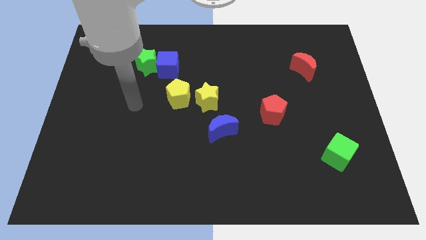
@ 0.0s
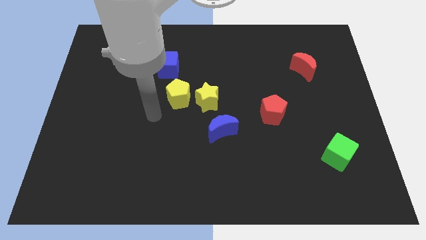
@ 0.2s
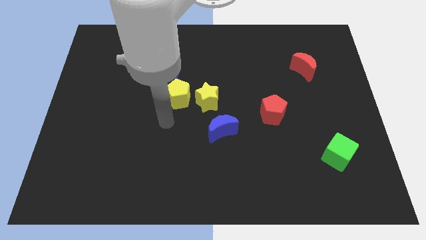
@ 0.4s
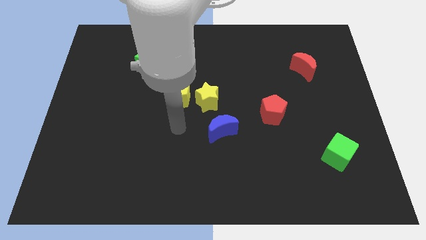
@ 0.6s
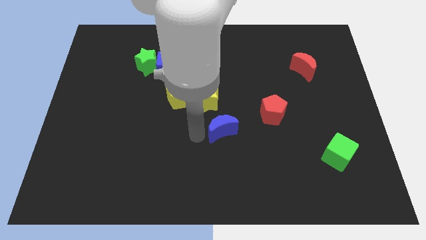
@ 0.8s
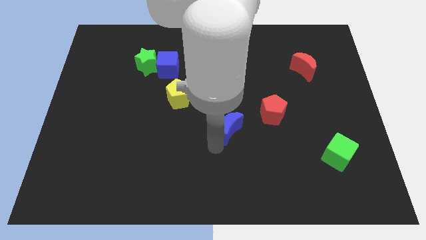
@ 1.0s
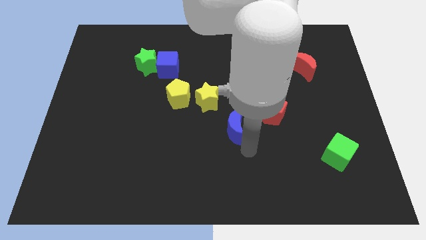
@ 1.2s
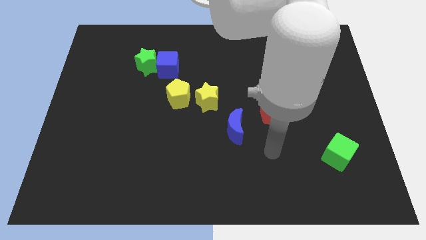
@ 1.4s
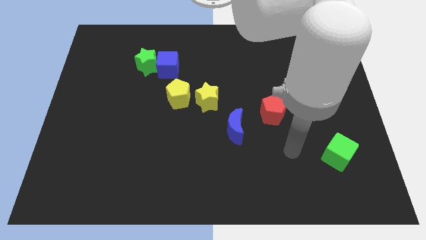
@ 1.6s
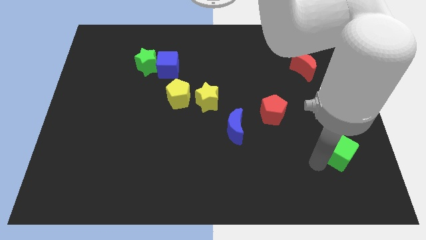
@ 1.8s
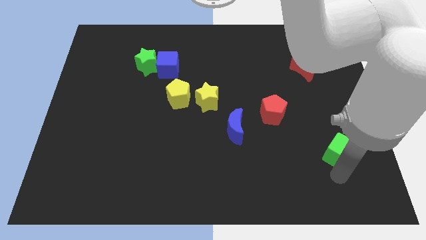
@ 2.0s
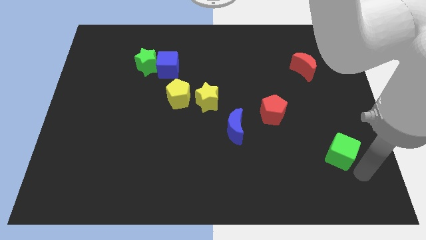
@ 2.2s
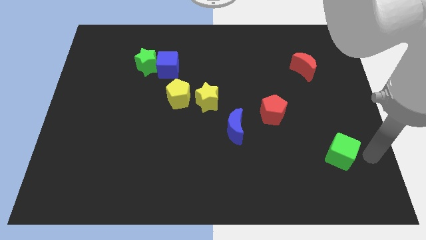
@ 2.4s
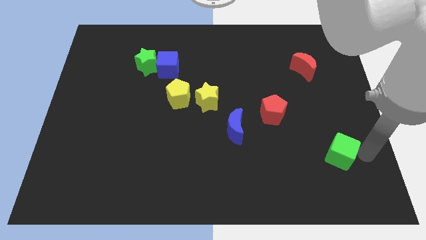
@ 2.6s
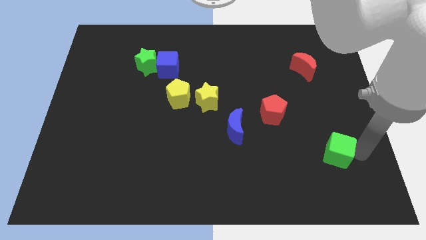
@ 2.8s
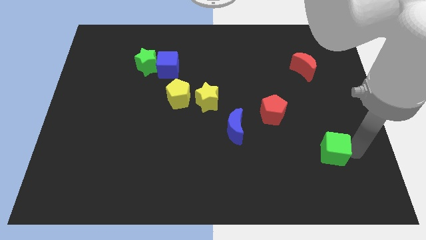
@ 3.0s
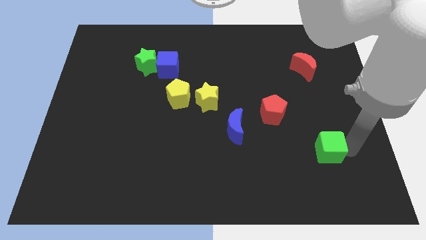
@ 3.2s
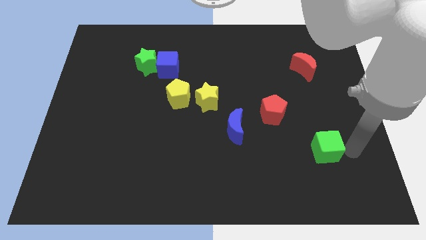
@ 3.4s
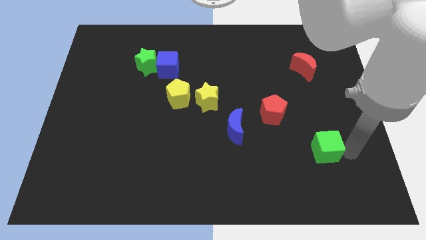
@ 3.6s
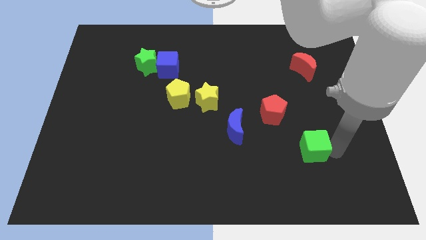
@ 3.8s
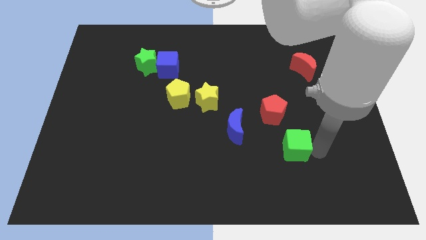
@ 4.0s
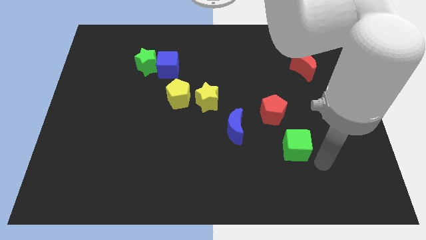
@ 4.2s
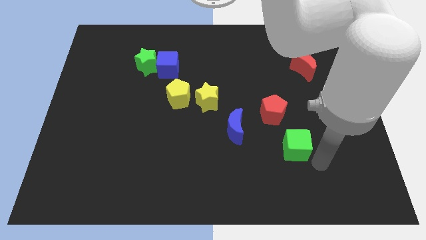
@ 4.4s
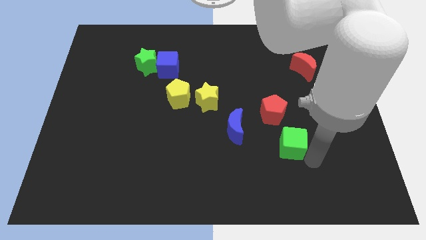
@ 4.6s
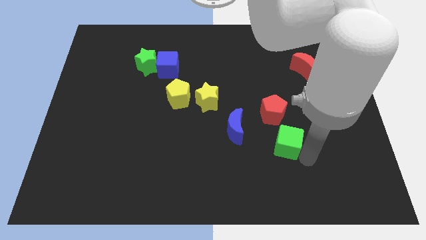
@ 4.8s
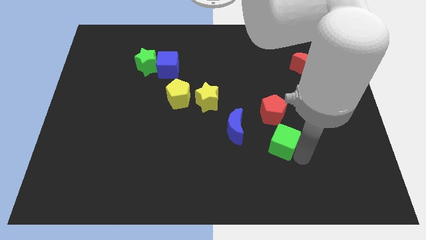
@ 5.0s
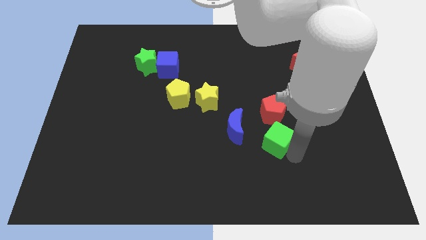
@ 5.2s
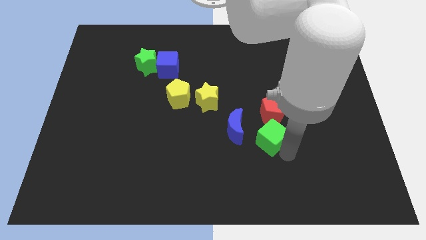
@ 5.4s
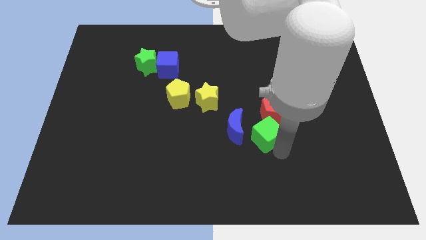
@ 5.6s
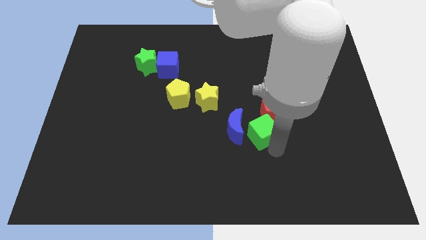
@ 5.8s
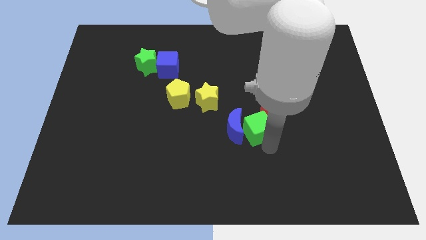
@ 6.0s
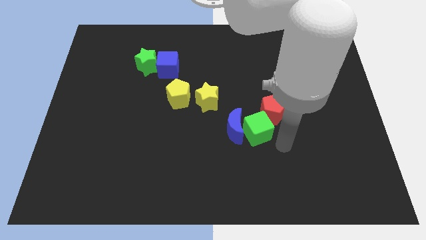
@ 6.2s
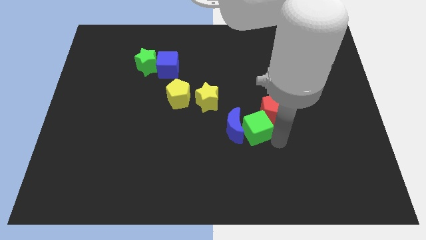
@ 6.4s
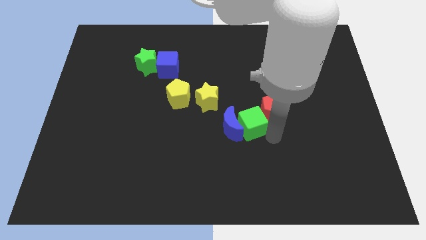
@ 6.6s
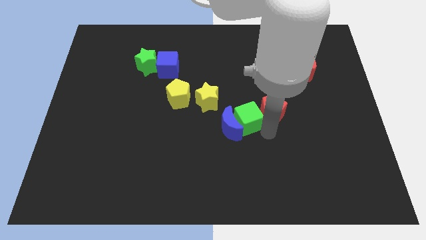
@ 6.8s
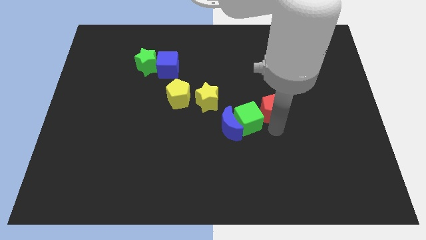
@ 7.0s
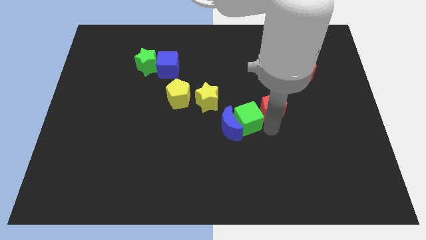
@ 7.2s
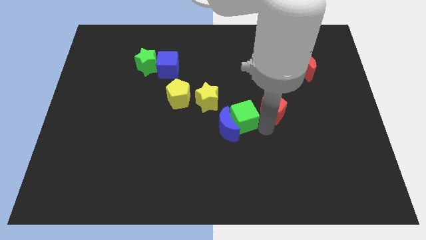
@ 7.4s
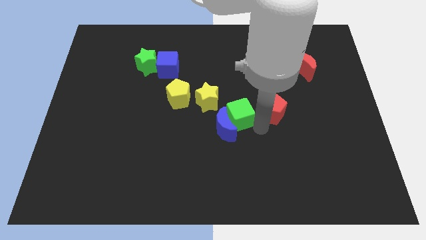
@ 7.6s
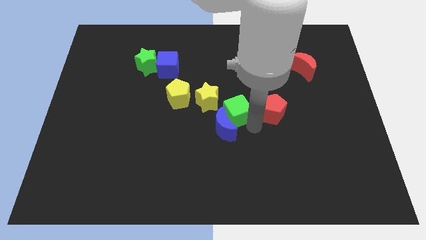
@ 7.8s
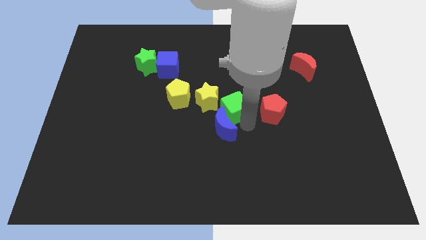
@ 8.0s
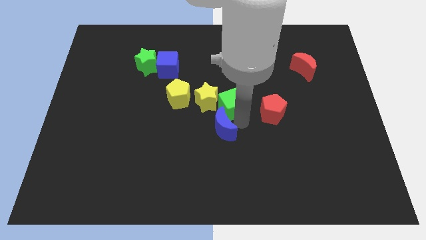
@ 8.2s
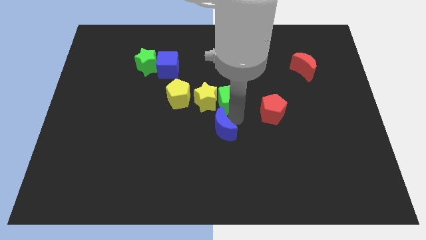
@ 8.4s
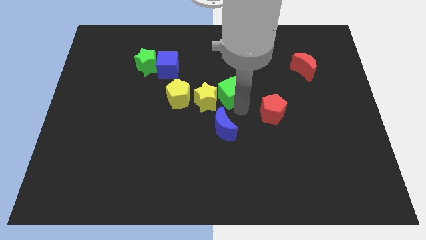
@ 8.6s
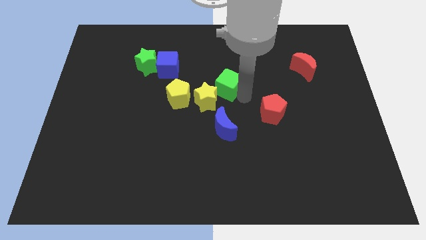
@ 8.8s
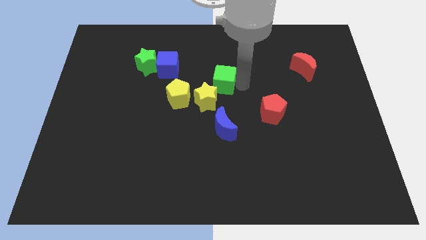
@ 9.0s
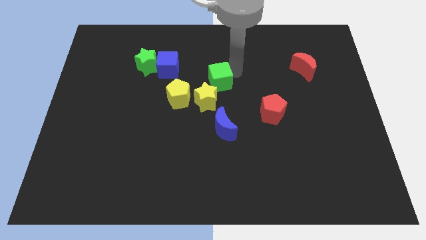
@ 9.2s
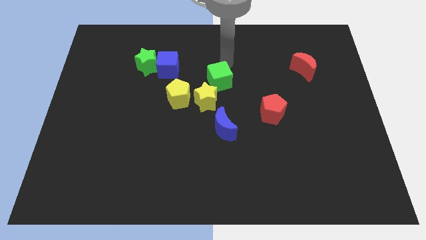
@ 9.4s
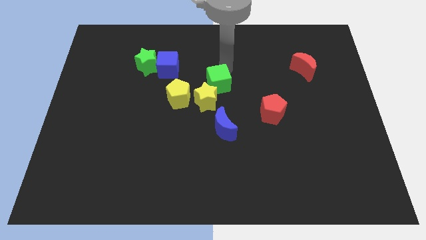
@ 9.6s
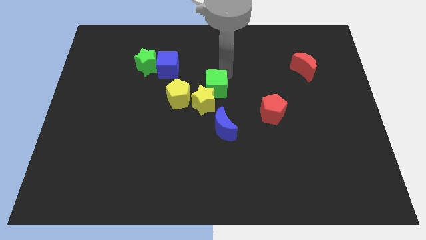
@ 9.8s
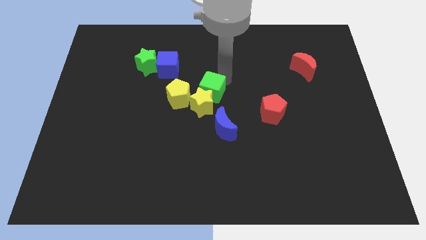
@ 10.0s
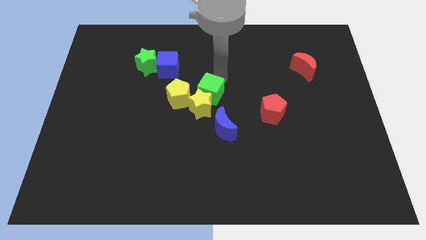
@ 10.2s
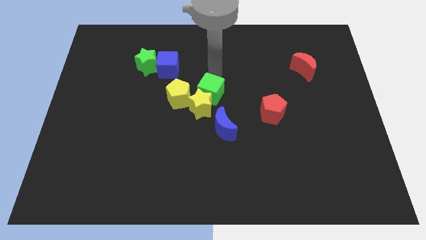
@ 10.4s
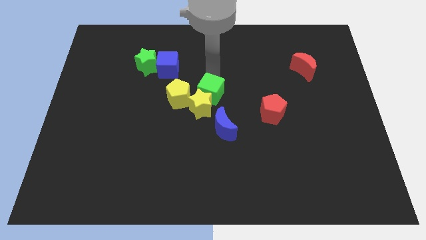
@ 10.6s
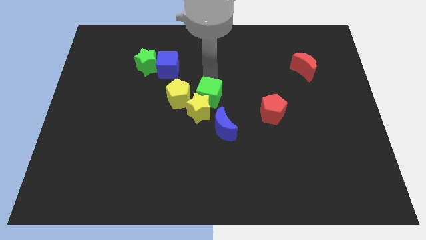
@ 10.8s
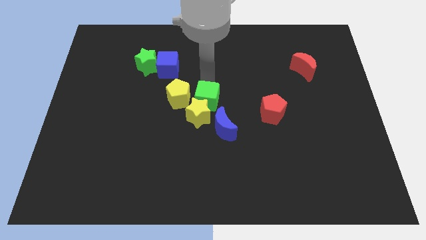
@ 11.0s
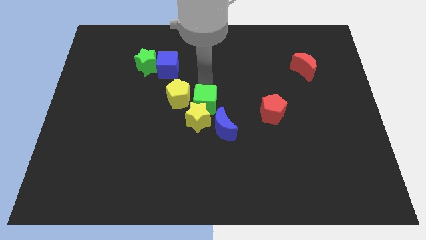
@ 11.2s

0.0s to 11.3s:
slide the green cube close to the yellow pentagon

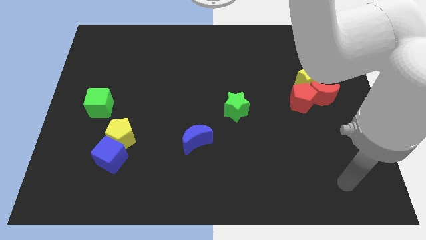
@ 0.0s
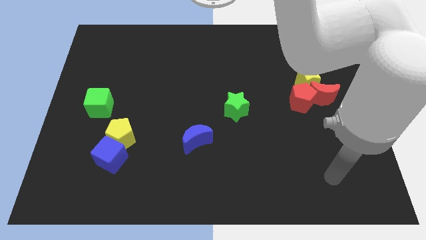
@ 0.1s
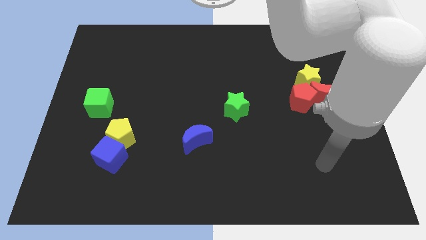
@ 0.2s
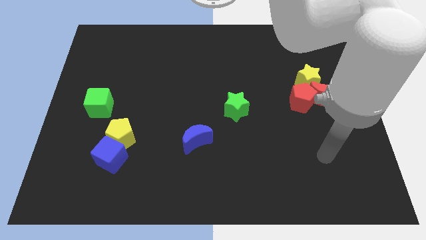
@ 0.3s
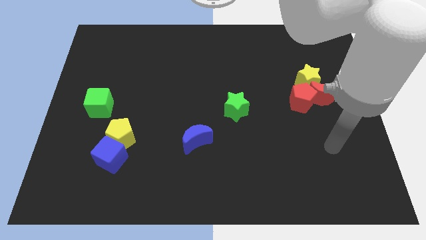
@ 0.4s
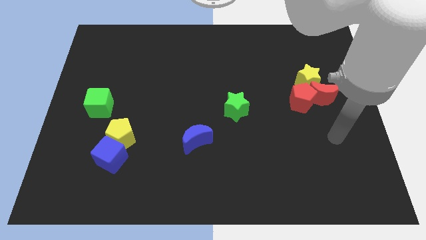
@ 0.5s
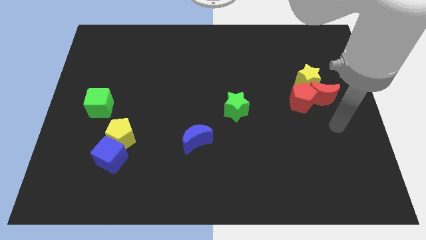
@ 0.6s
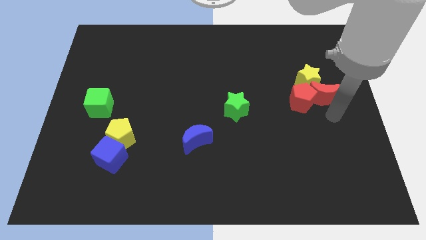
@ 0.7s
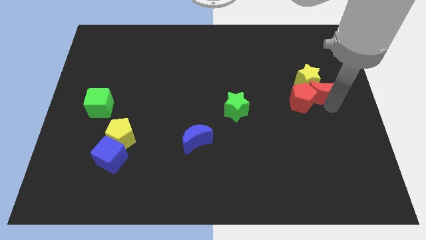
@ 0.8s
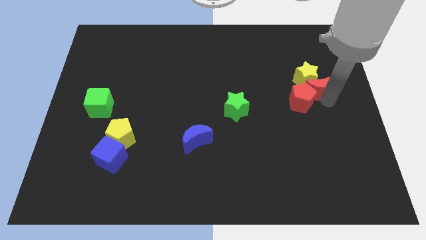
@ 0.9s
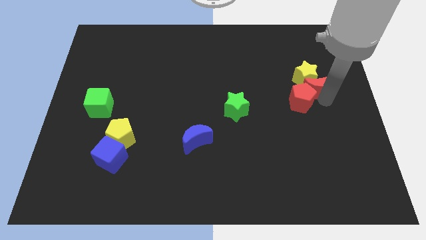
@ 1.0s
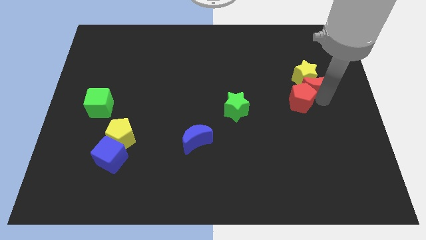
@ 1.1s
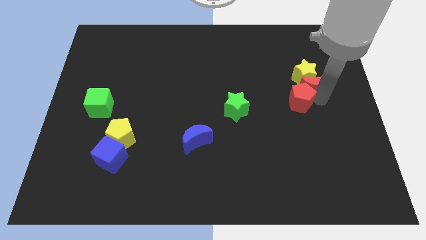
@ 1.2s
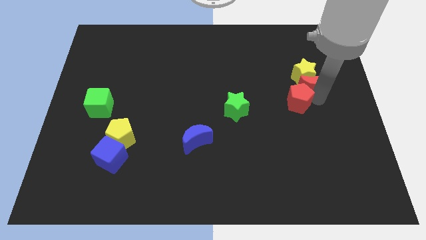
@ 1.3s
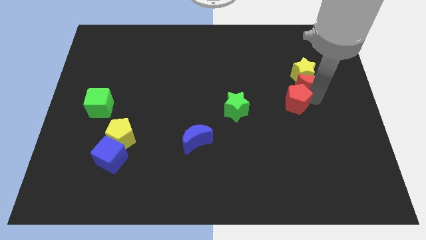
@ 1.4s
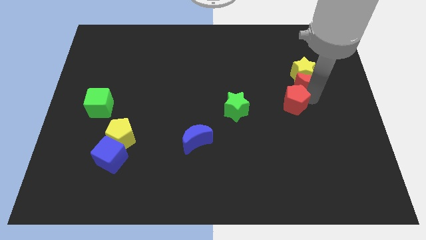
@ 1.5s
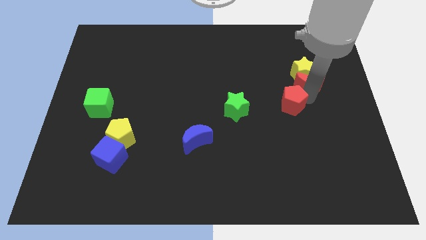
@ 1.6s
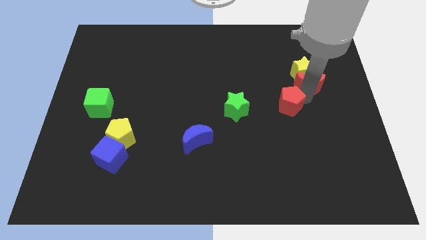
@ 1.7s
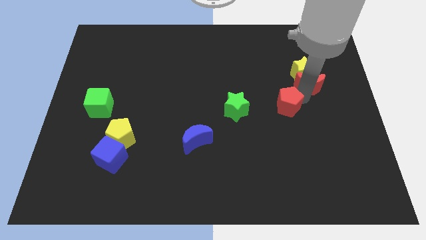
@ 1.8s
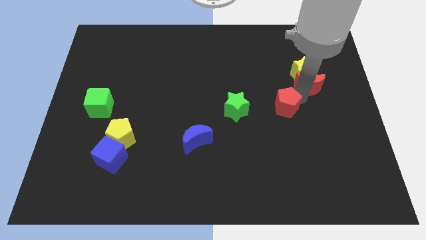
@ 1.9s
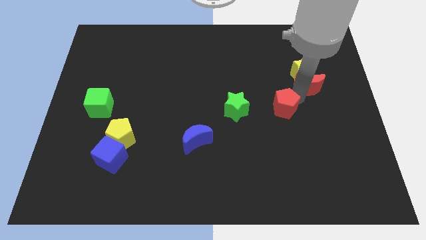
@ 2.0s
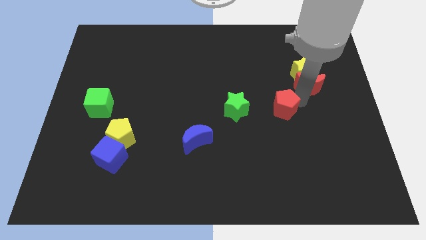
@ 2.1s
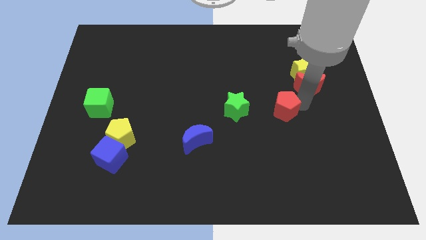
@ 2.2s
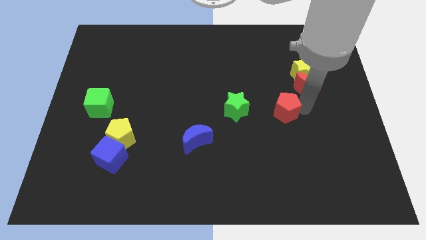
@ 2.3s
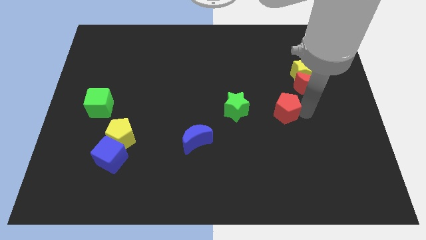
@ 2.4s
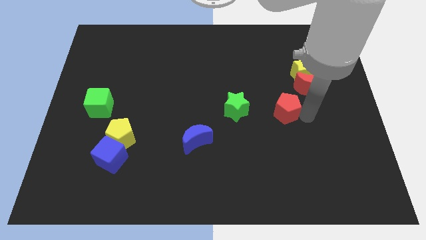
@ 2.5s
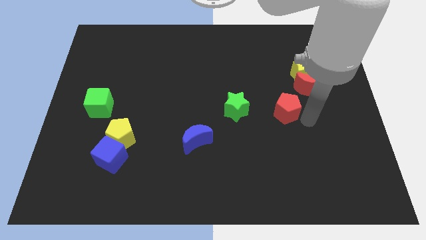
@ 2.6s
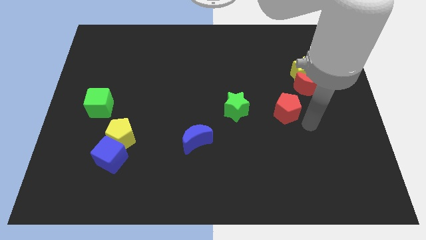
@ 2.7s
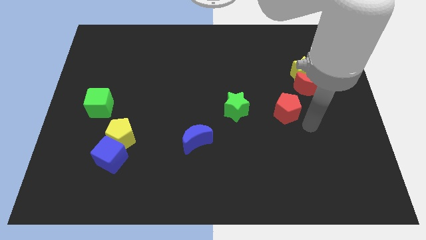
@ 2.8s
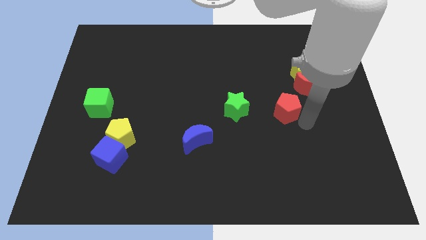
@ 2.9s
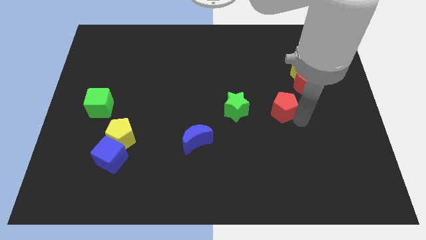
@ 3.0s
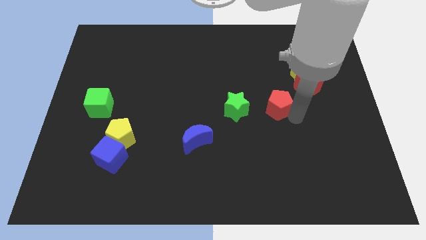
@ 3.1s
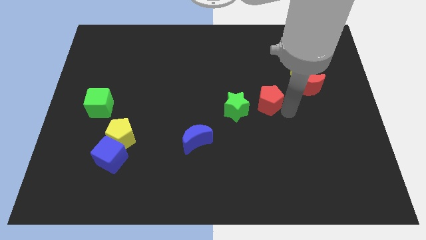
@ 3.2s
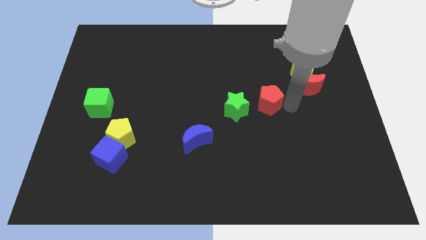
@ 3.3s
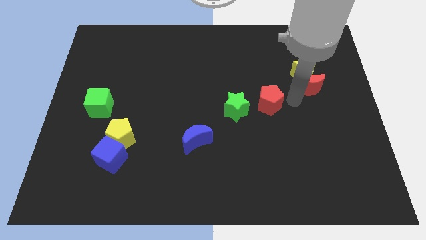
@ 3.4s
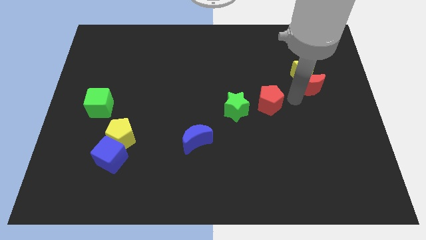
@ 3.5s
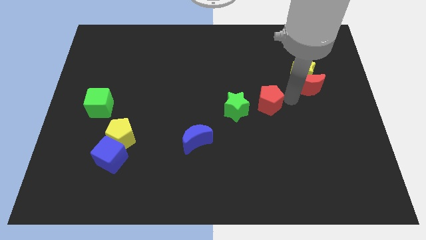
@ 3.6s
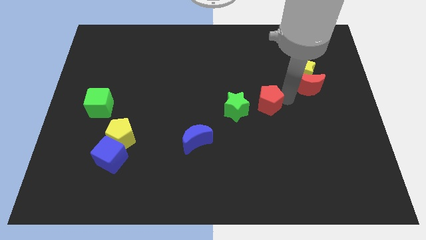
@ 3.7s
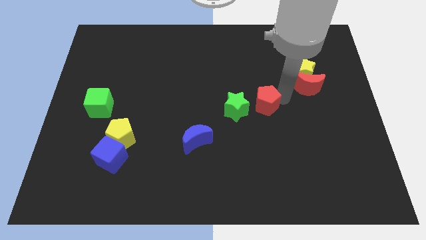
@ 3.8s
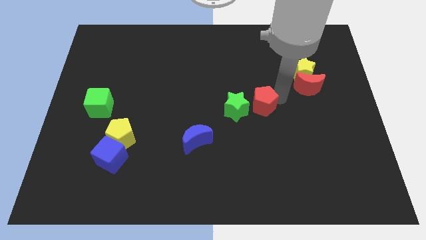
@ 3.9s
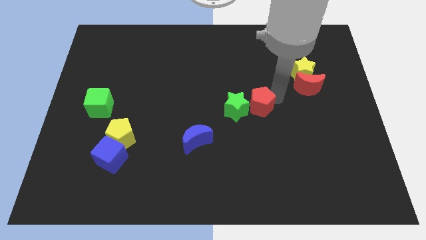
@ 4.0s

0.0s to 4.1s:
put the red pentagon close to the green star
